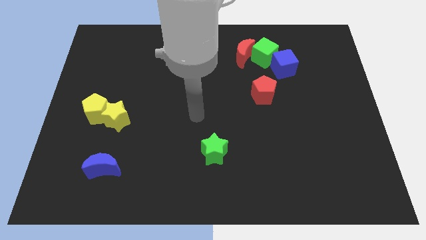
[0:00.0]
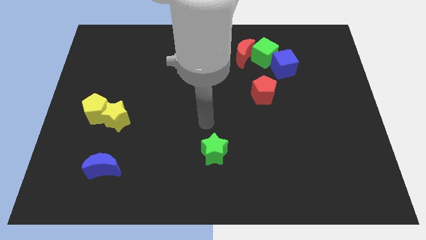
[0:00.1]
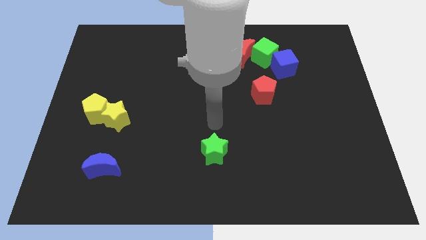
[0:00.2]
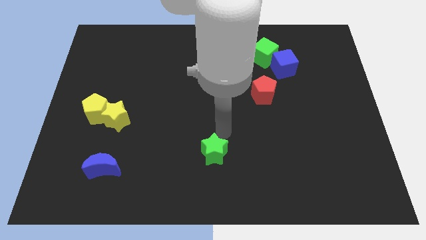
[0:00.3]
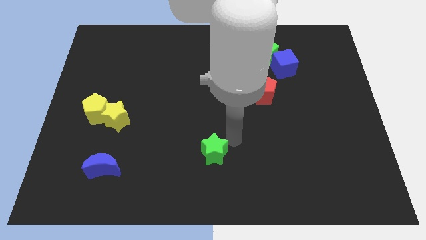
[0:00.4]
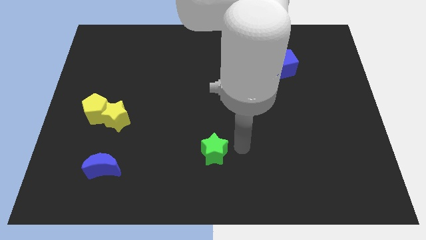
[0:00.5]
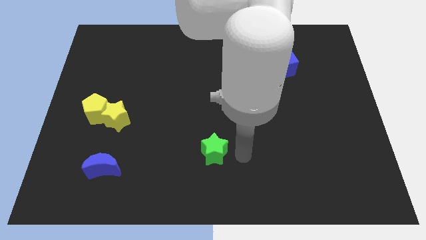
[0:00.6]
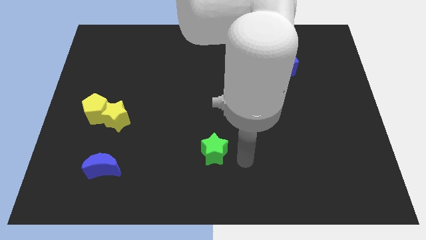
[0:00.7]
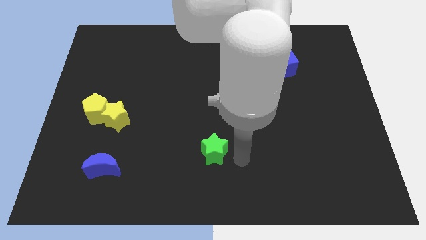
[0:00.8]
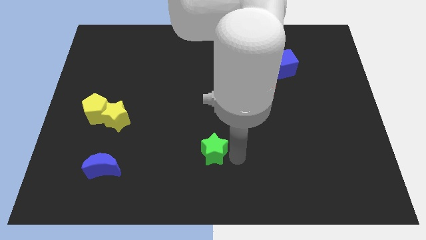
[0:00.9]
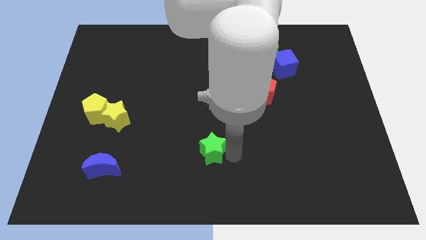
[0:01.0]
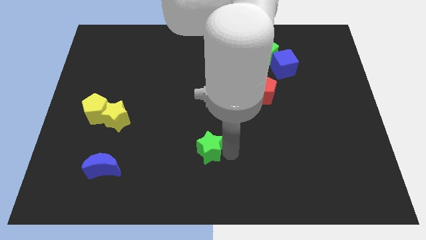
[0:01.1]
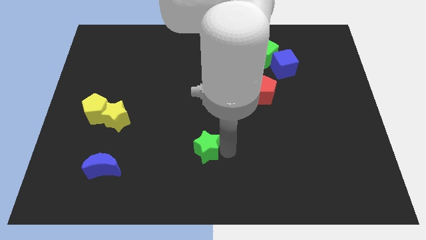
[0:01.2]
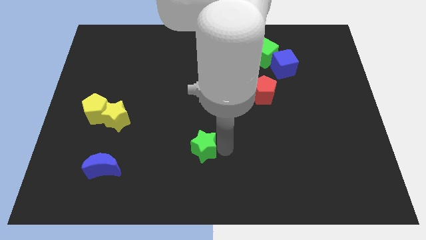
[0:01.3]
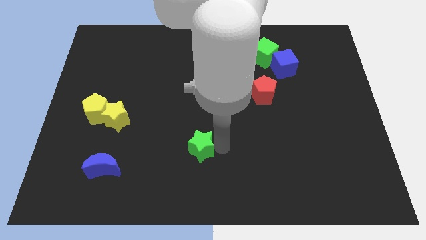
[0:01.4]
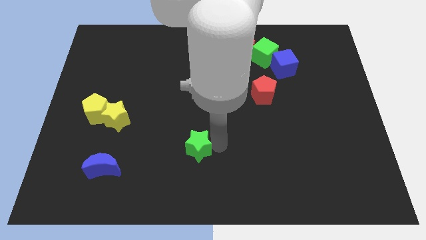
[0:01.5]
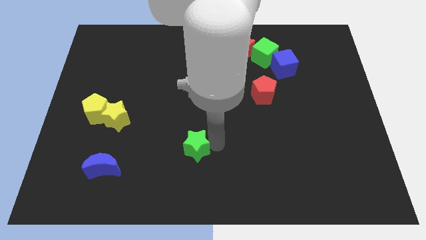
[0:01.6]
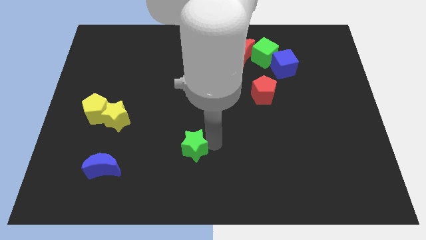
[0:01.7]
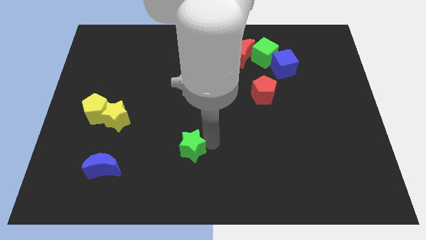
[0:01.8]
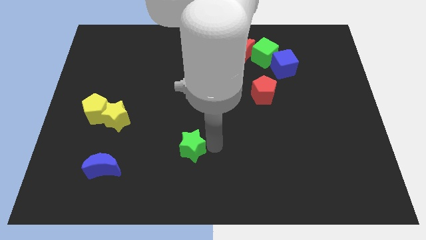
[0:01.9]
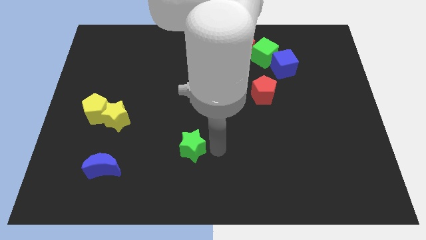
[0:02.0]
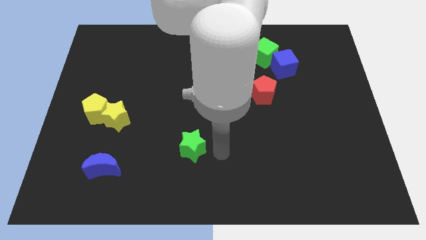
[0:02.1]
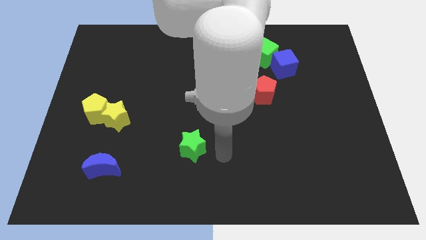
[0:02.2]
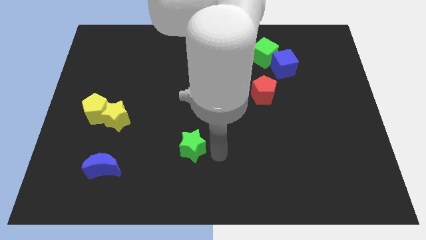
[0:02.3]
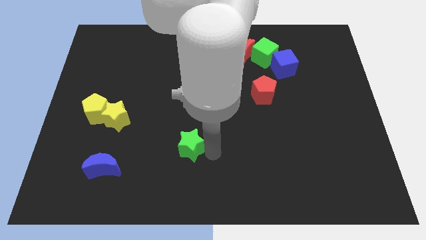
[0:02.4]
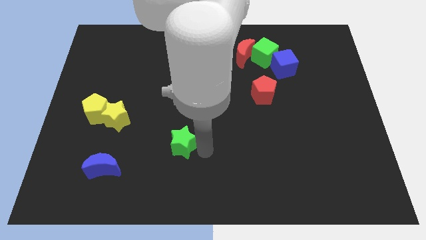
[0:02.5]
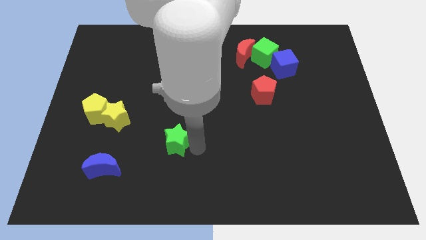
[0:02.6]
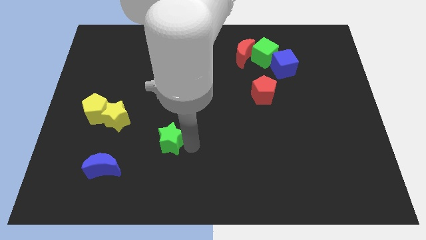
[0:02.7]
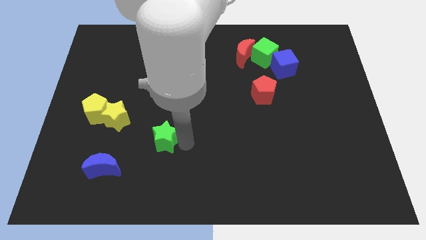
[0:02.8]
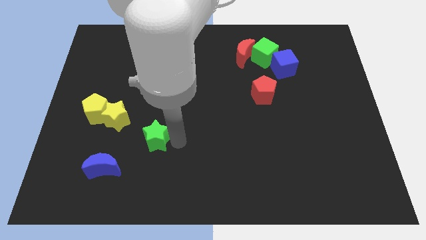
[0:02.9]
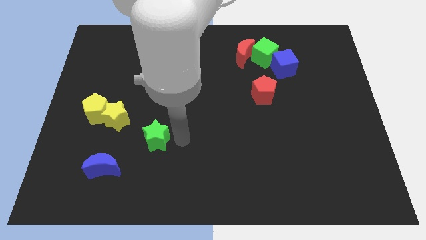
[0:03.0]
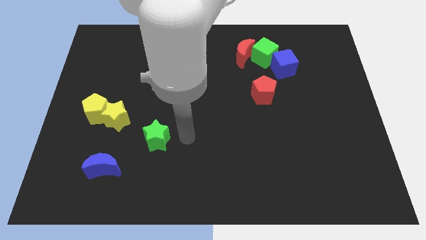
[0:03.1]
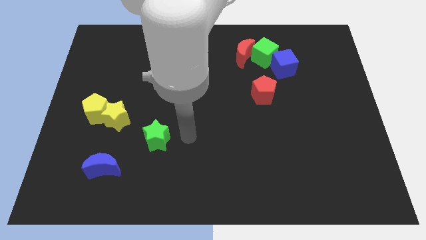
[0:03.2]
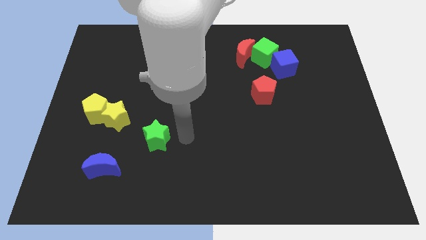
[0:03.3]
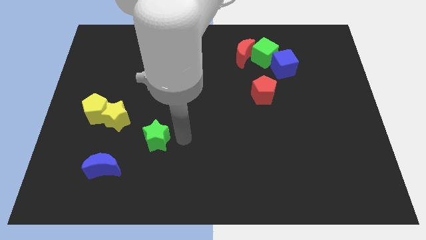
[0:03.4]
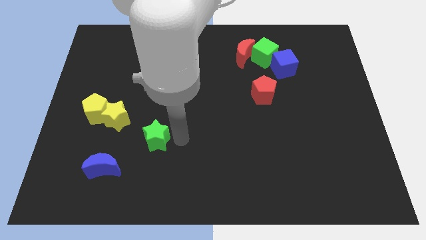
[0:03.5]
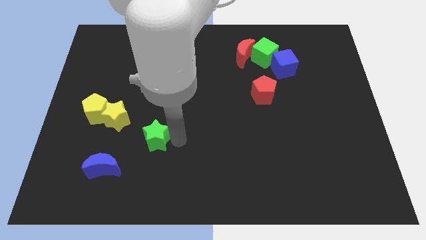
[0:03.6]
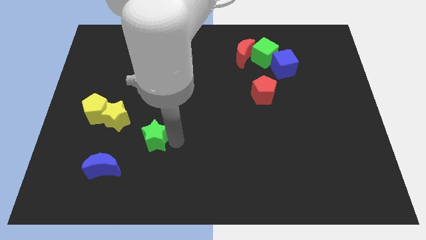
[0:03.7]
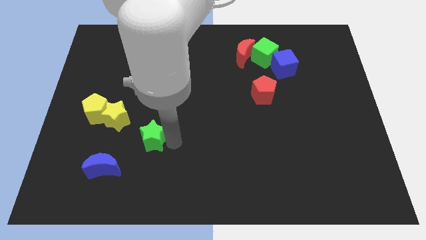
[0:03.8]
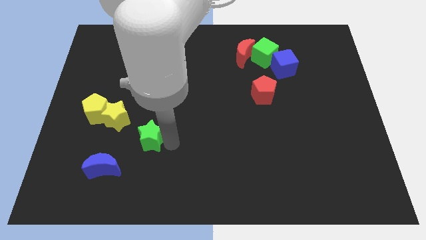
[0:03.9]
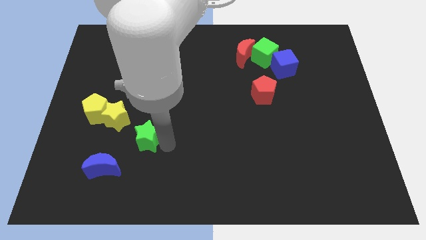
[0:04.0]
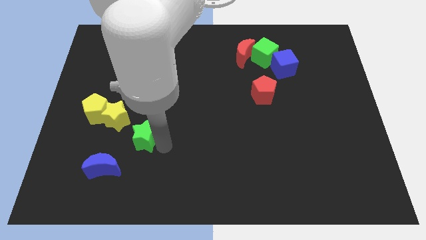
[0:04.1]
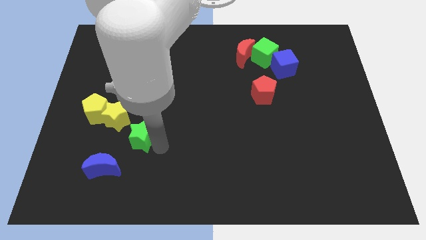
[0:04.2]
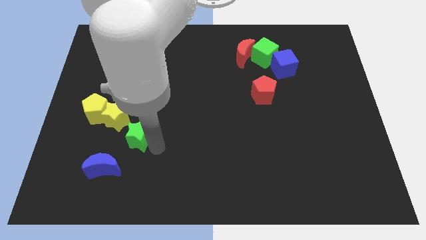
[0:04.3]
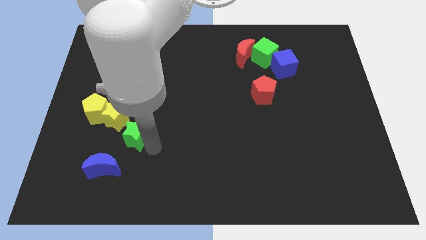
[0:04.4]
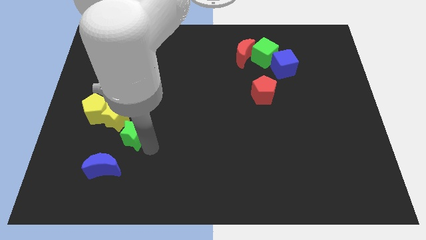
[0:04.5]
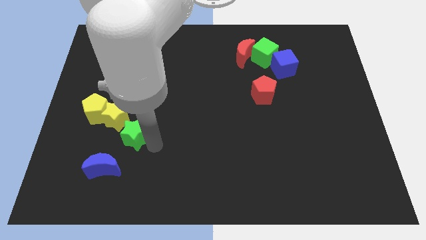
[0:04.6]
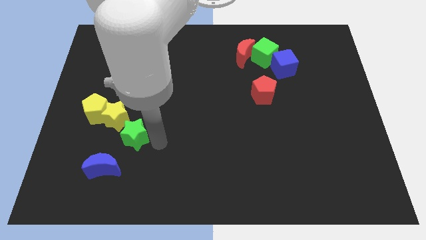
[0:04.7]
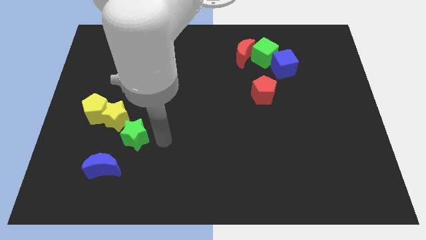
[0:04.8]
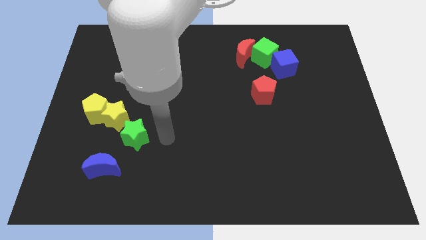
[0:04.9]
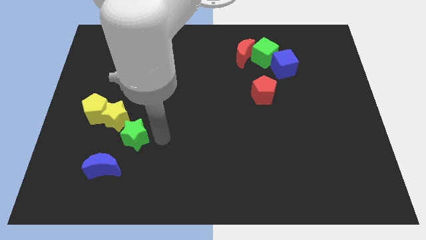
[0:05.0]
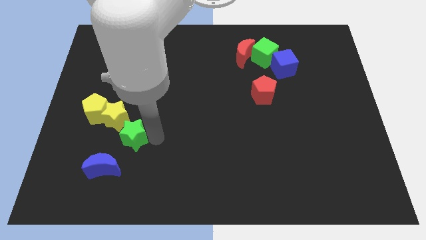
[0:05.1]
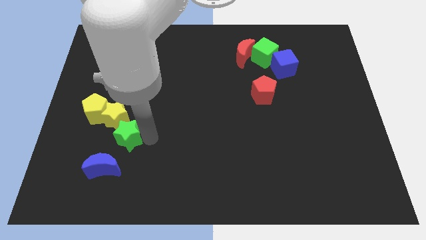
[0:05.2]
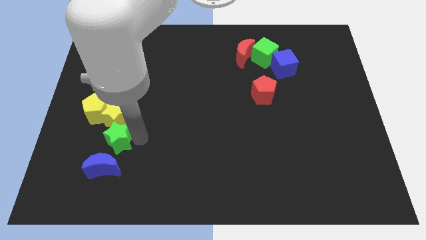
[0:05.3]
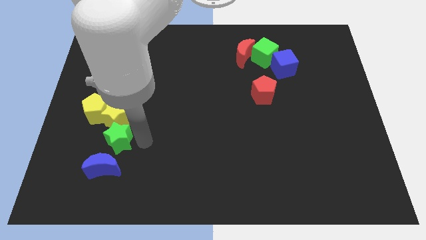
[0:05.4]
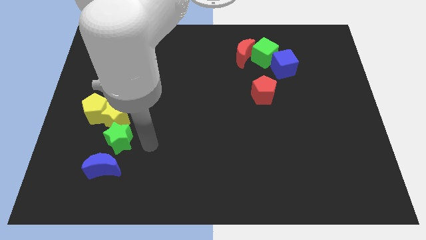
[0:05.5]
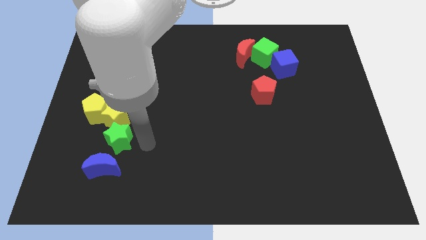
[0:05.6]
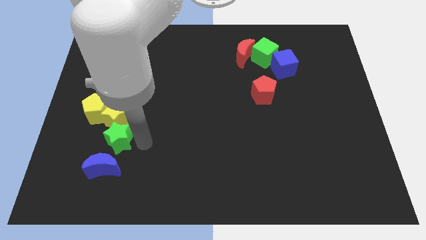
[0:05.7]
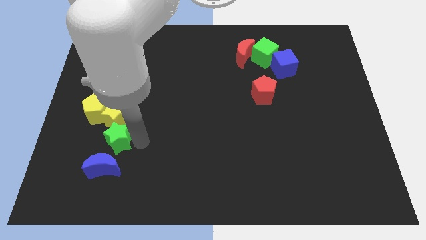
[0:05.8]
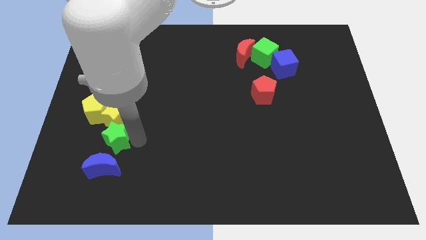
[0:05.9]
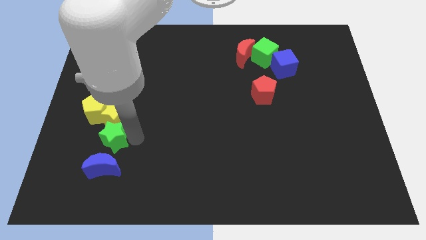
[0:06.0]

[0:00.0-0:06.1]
move the green star to the bottom left side of the yellow star

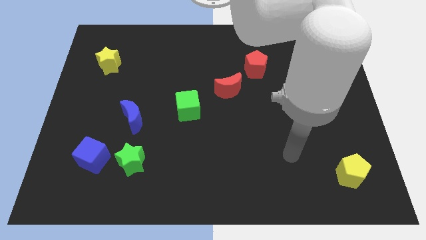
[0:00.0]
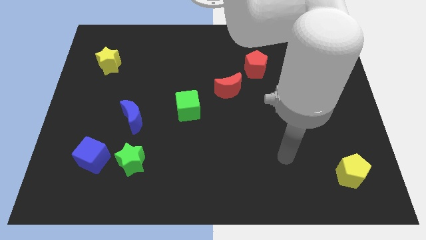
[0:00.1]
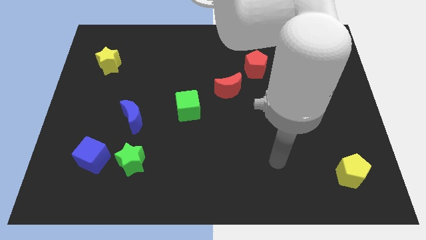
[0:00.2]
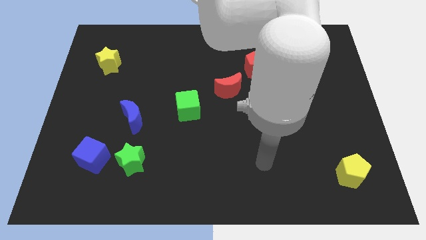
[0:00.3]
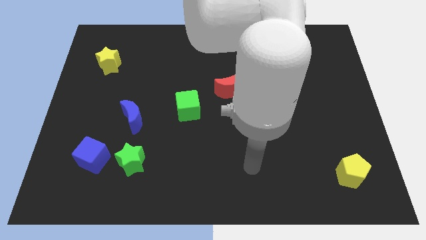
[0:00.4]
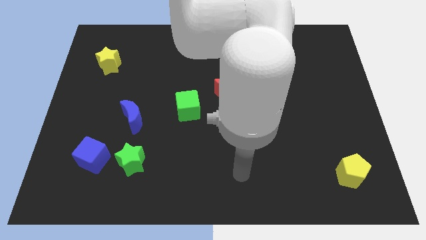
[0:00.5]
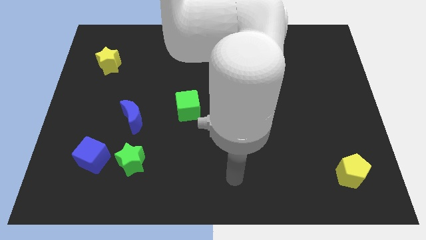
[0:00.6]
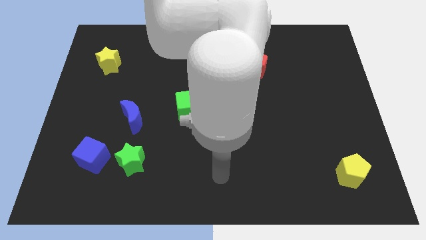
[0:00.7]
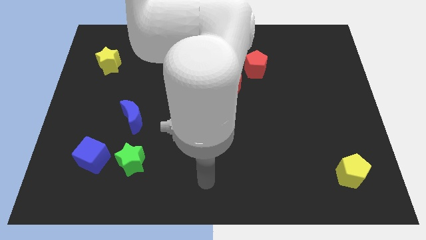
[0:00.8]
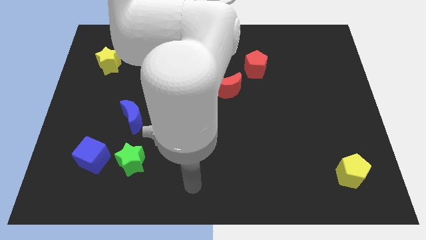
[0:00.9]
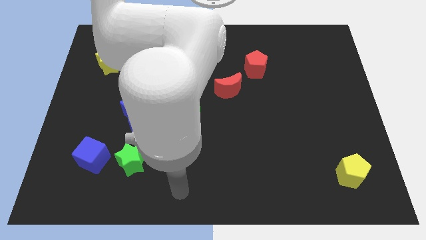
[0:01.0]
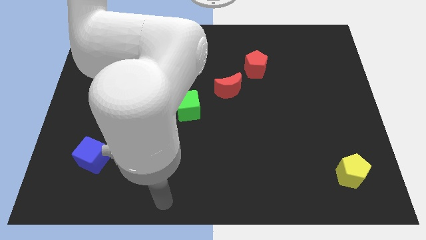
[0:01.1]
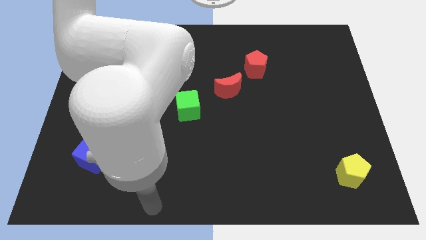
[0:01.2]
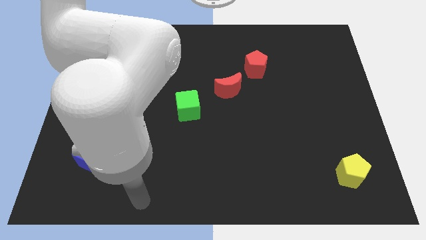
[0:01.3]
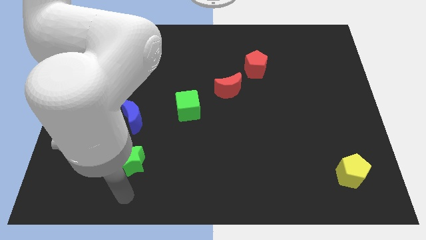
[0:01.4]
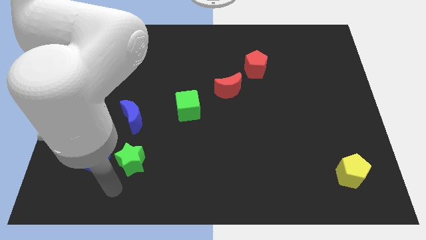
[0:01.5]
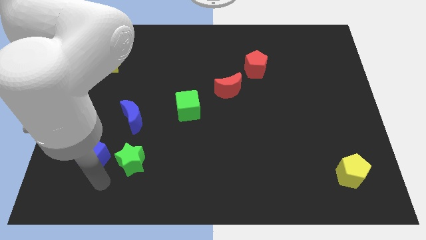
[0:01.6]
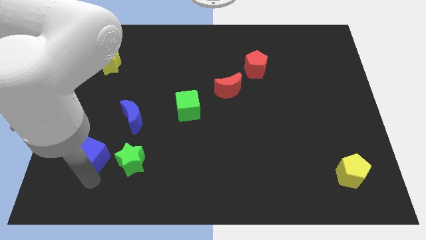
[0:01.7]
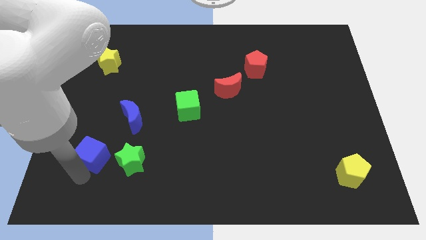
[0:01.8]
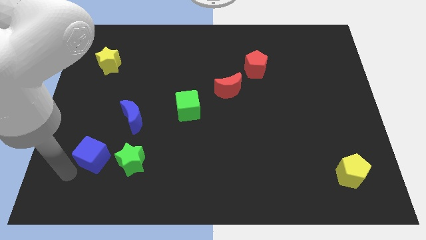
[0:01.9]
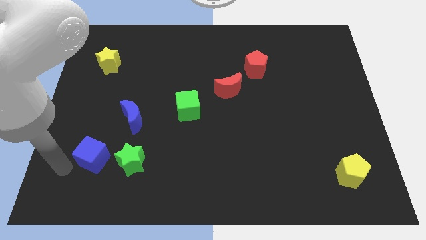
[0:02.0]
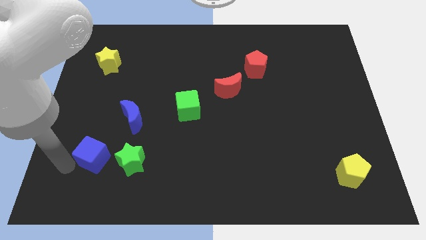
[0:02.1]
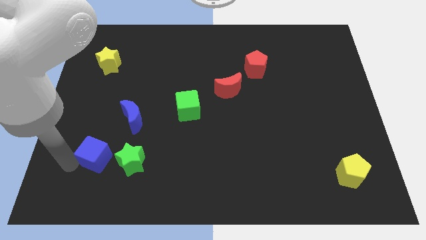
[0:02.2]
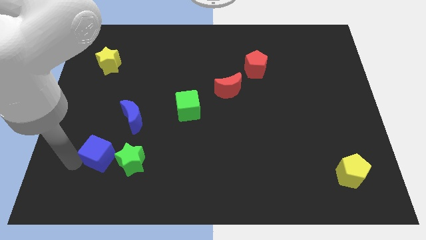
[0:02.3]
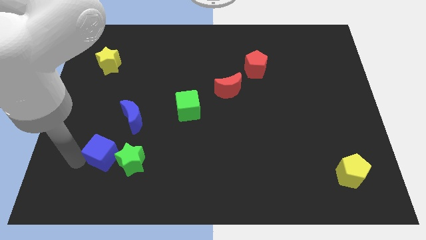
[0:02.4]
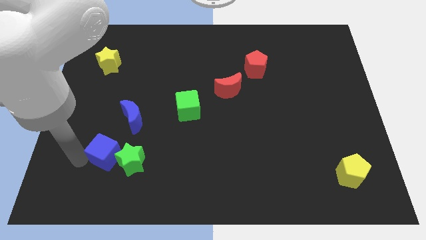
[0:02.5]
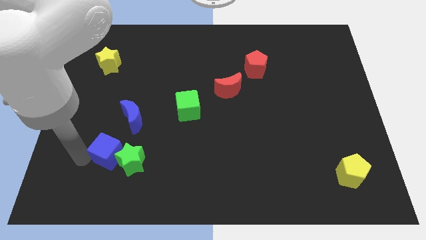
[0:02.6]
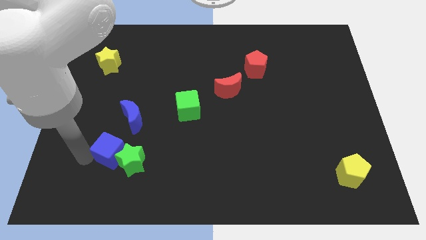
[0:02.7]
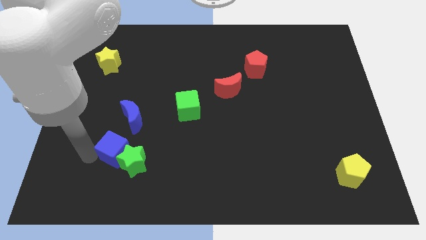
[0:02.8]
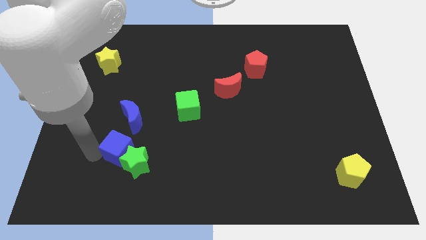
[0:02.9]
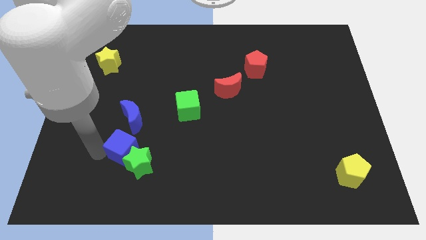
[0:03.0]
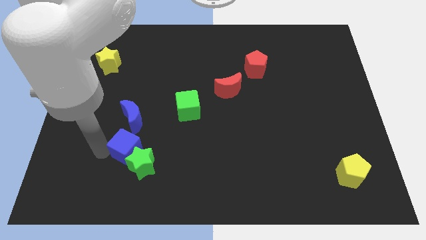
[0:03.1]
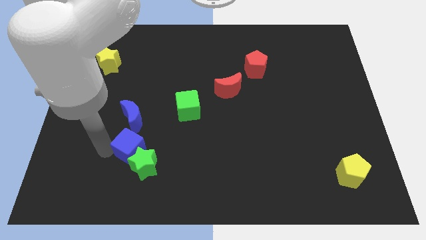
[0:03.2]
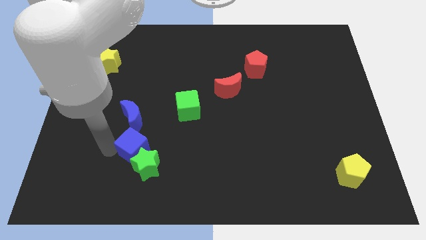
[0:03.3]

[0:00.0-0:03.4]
move the blue cube to the bottom right side of the blue moon
